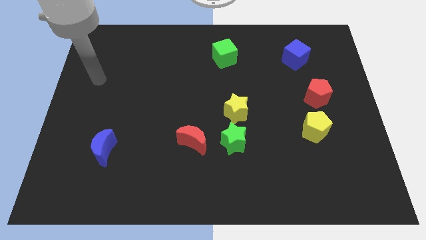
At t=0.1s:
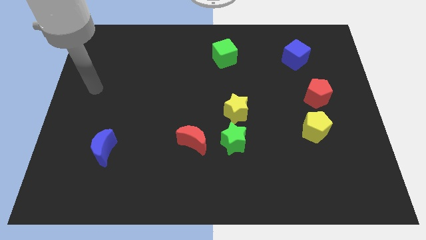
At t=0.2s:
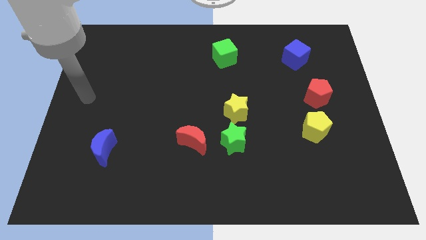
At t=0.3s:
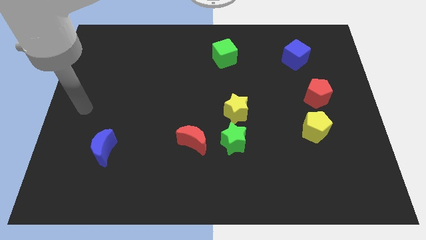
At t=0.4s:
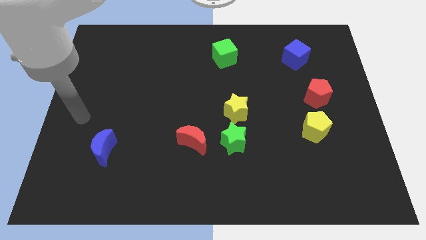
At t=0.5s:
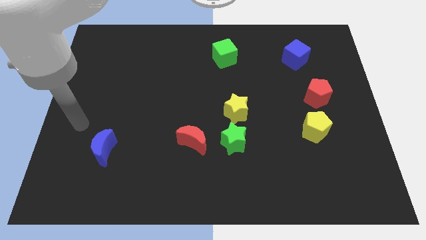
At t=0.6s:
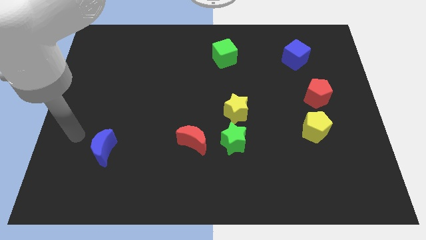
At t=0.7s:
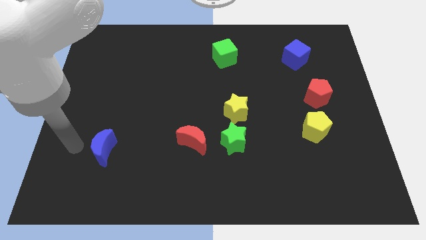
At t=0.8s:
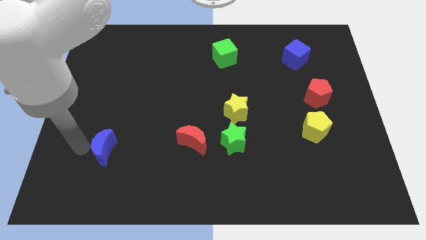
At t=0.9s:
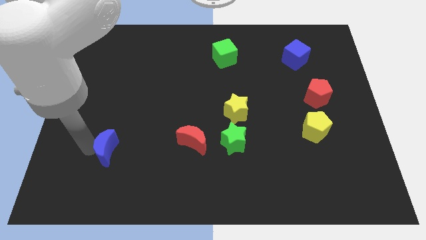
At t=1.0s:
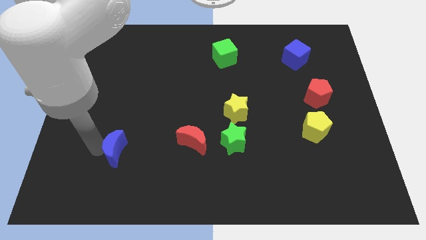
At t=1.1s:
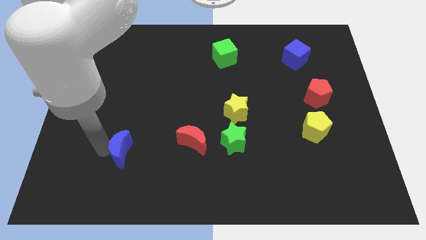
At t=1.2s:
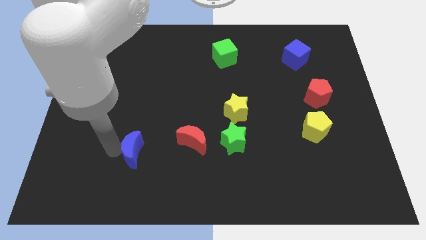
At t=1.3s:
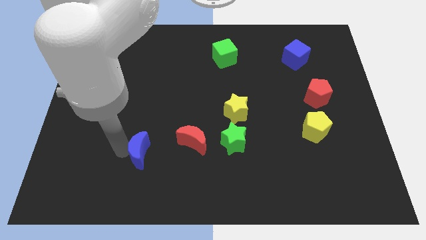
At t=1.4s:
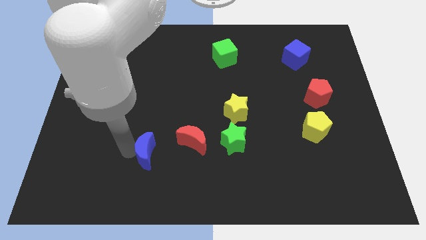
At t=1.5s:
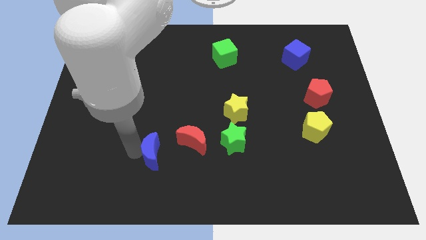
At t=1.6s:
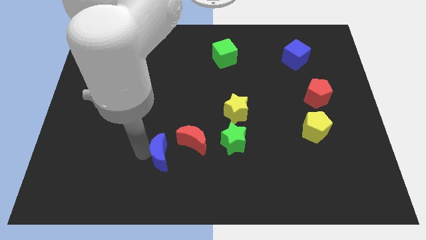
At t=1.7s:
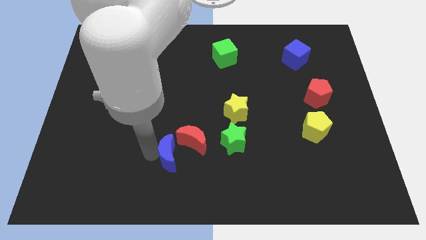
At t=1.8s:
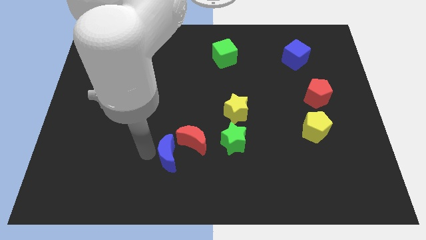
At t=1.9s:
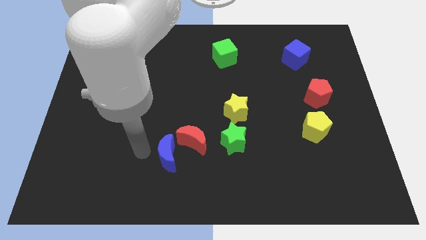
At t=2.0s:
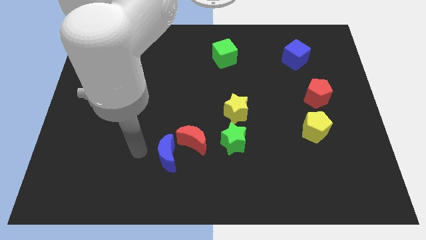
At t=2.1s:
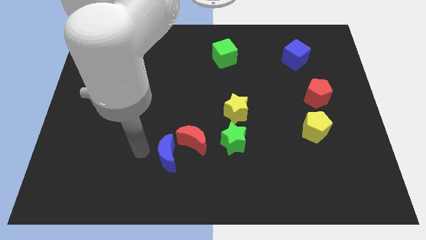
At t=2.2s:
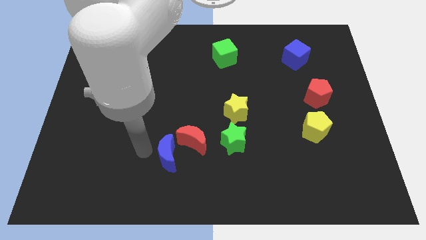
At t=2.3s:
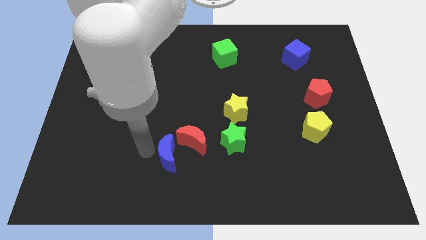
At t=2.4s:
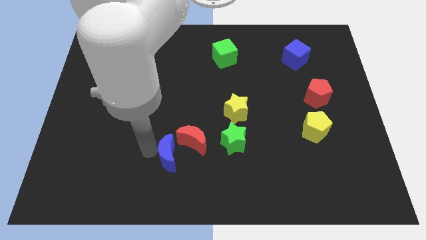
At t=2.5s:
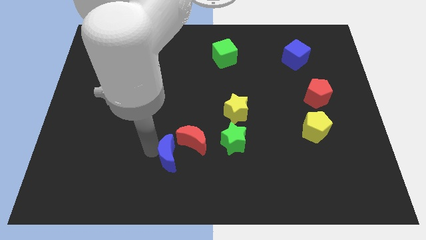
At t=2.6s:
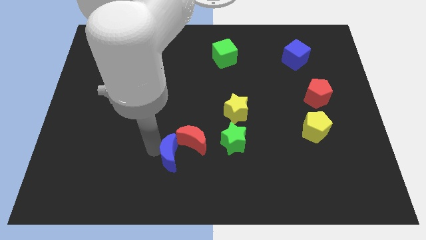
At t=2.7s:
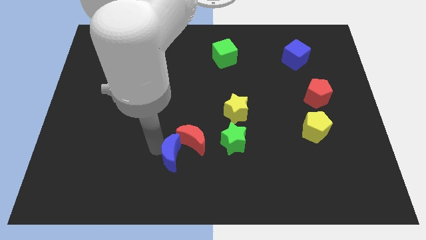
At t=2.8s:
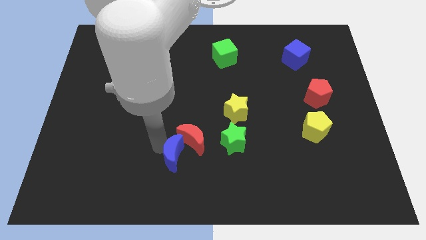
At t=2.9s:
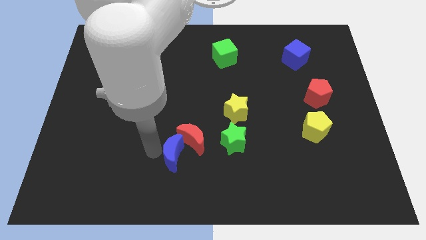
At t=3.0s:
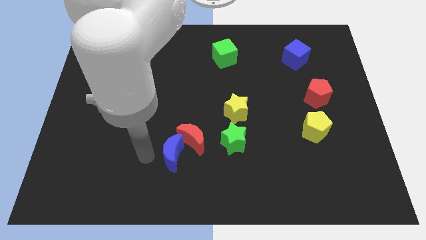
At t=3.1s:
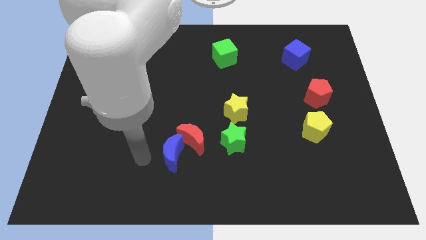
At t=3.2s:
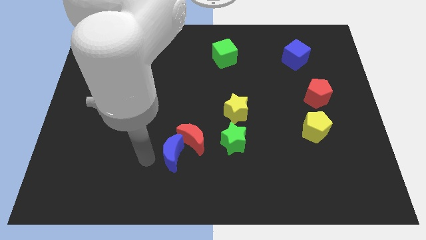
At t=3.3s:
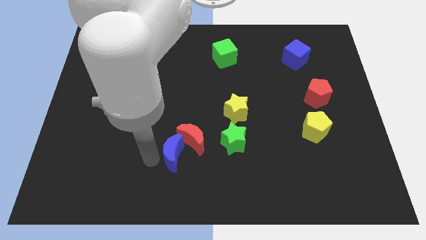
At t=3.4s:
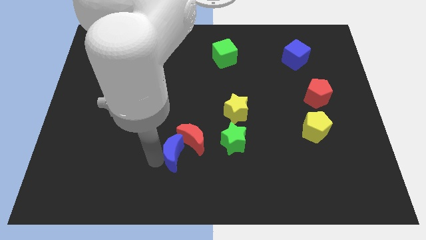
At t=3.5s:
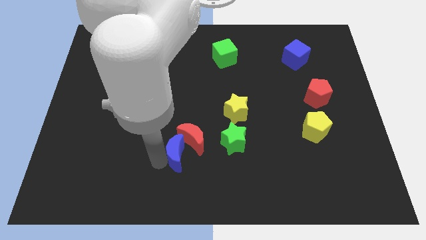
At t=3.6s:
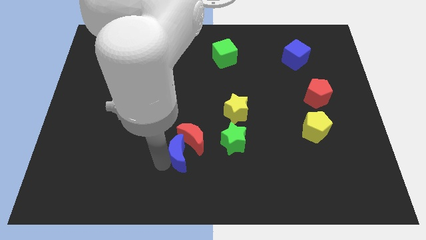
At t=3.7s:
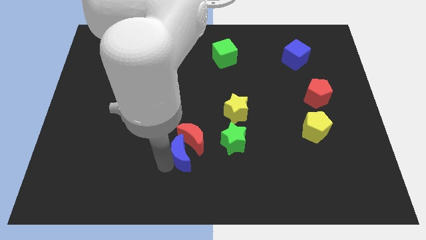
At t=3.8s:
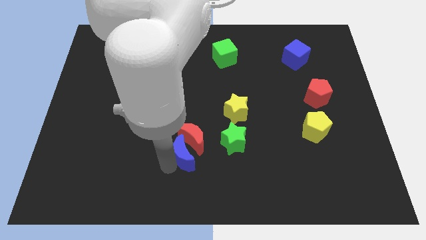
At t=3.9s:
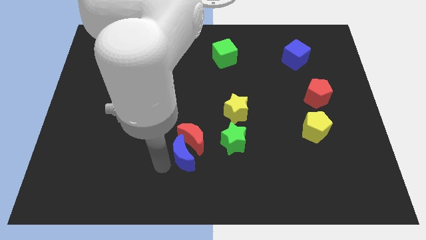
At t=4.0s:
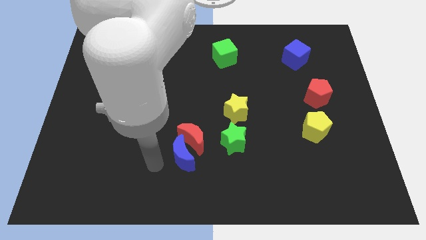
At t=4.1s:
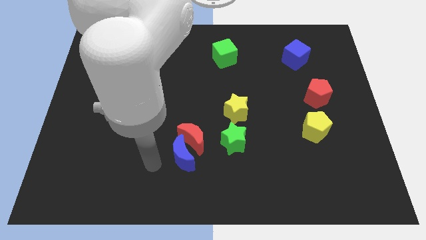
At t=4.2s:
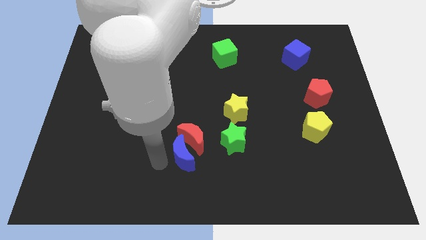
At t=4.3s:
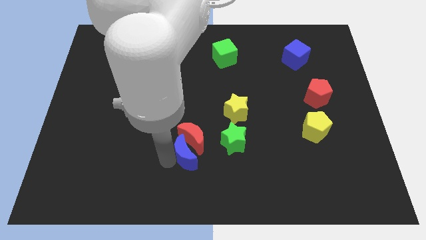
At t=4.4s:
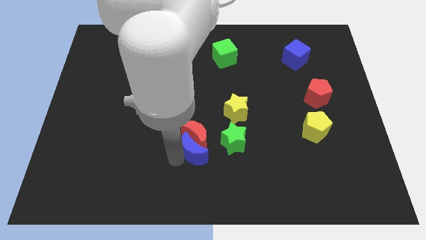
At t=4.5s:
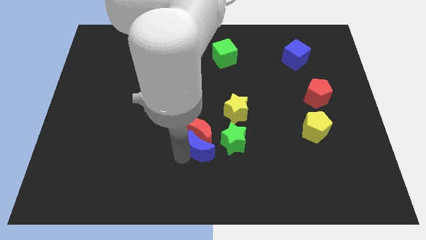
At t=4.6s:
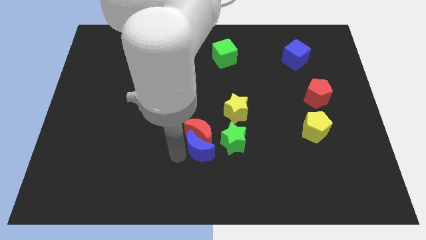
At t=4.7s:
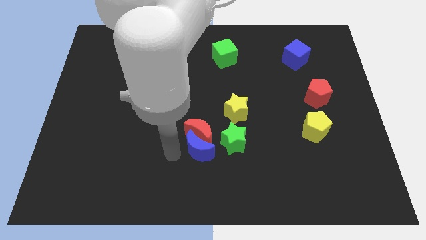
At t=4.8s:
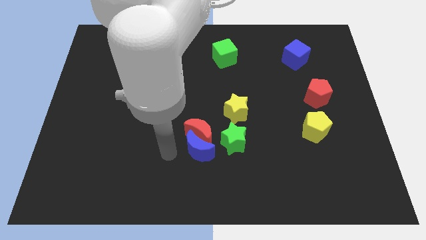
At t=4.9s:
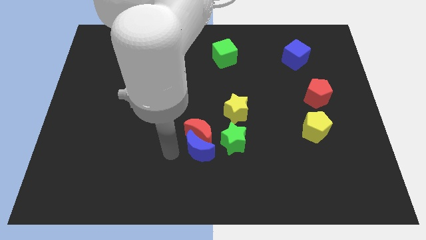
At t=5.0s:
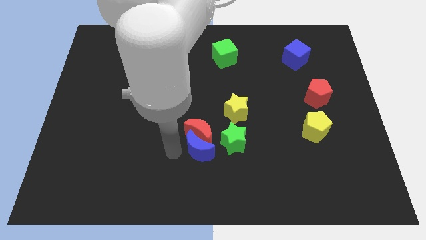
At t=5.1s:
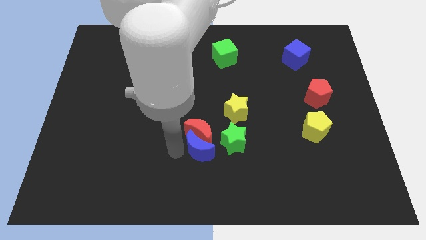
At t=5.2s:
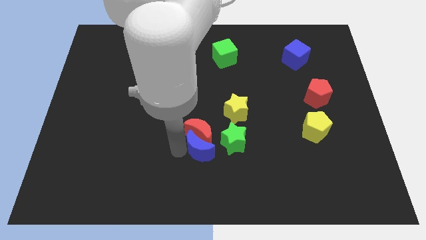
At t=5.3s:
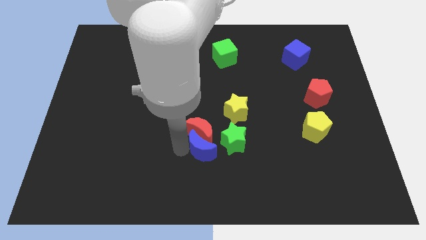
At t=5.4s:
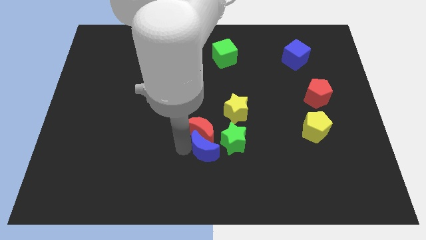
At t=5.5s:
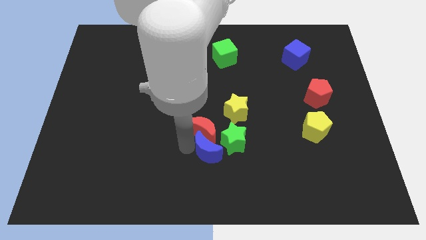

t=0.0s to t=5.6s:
push the blue moon close to the green star

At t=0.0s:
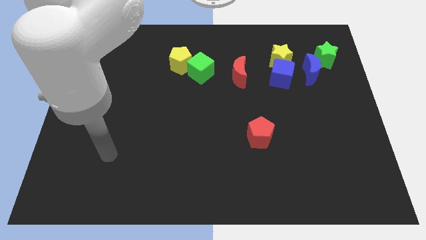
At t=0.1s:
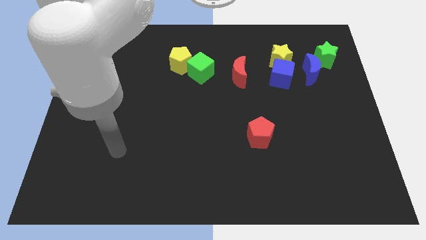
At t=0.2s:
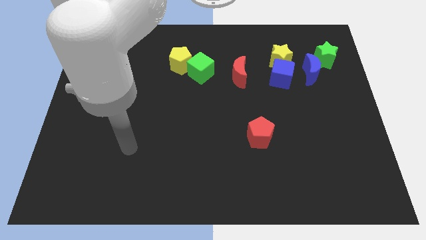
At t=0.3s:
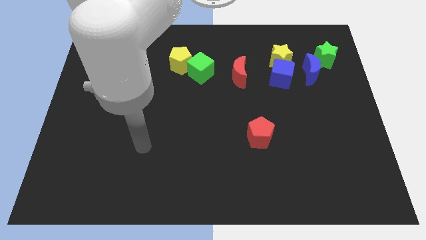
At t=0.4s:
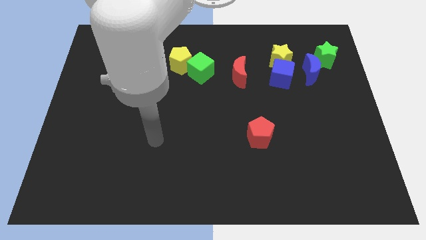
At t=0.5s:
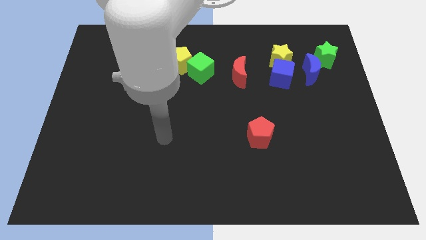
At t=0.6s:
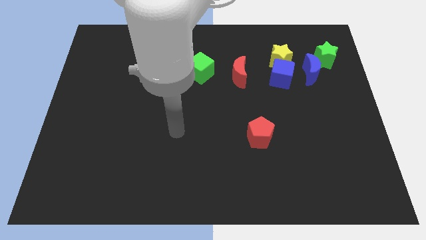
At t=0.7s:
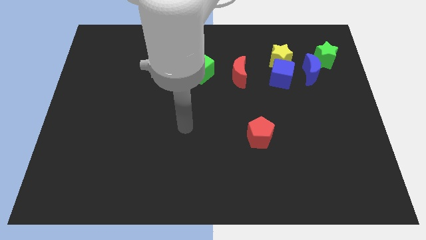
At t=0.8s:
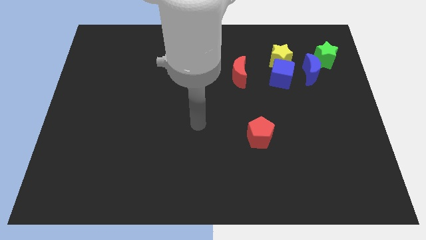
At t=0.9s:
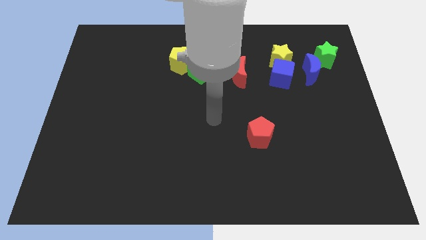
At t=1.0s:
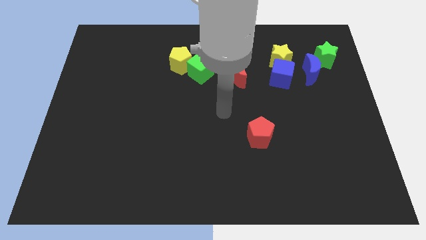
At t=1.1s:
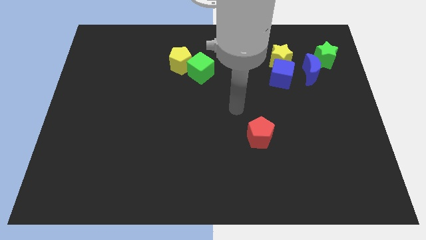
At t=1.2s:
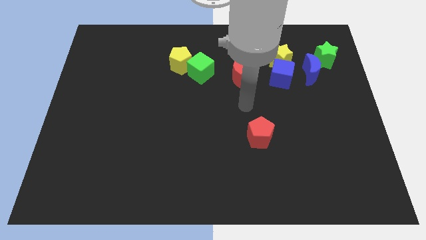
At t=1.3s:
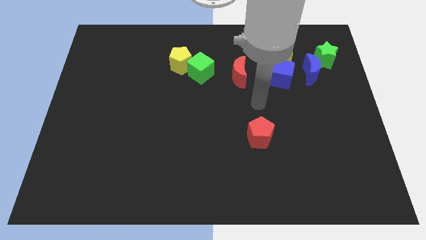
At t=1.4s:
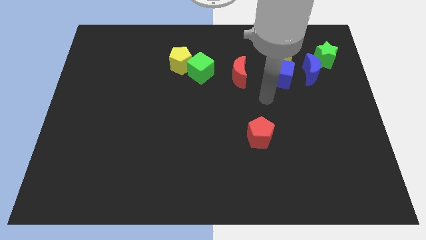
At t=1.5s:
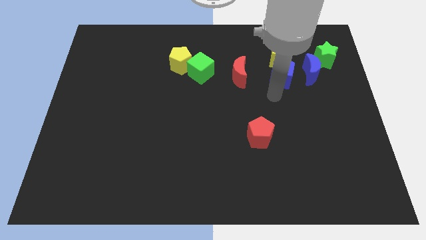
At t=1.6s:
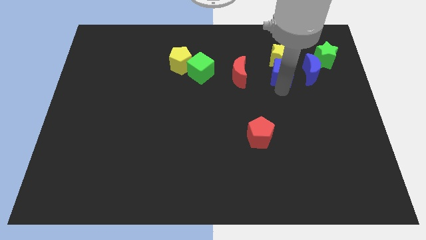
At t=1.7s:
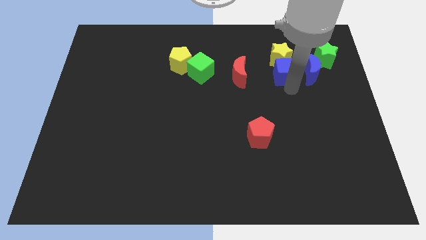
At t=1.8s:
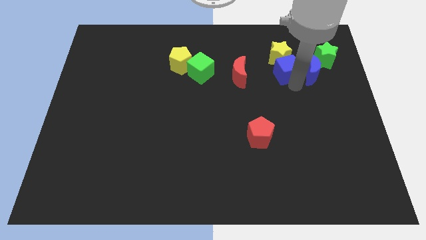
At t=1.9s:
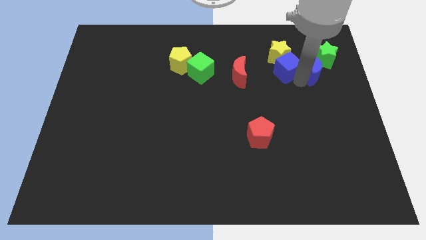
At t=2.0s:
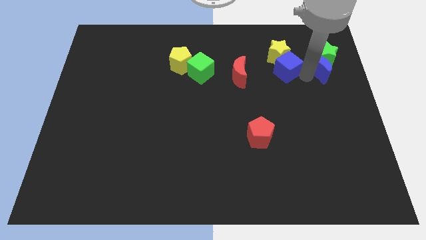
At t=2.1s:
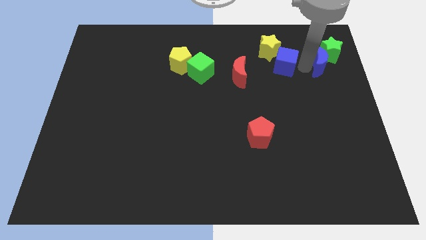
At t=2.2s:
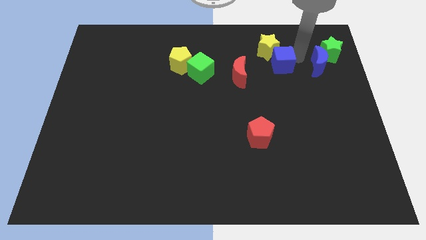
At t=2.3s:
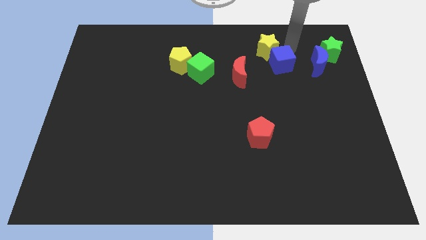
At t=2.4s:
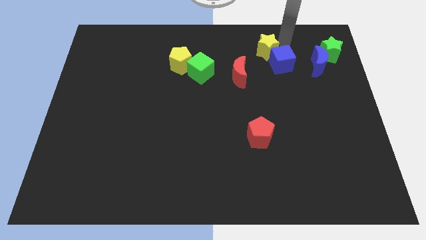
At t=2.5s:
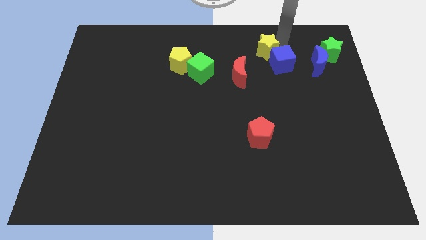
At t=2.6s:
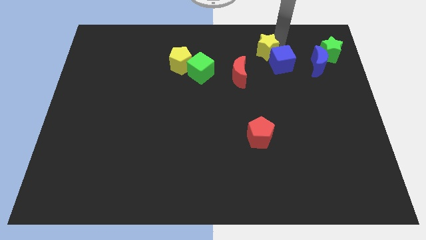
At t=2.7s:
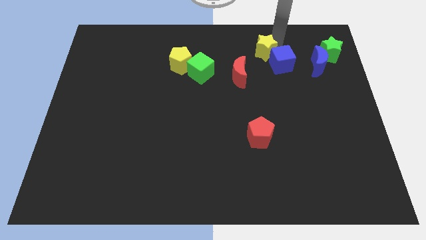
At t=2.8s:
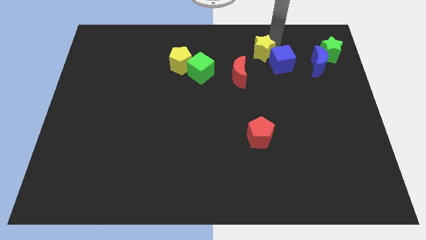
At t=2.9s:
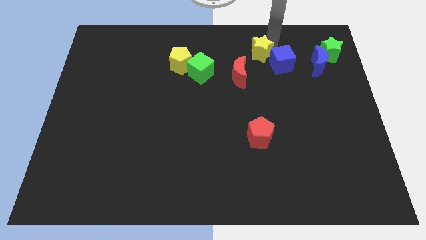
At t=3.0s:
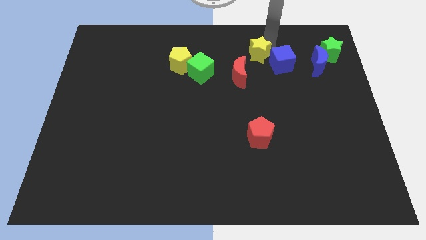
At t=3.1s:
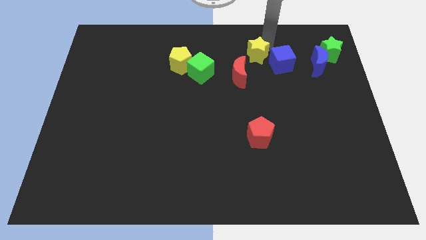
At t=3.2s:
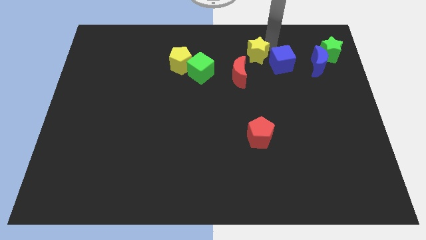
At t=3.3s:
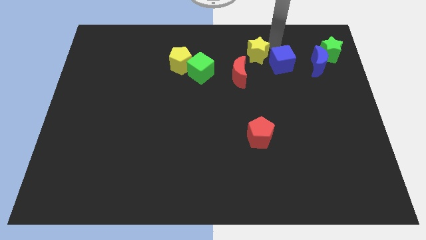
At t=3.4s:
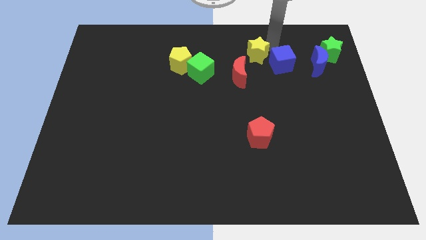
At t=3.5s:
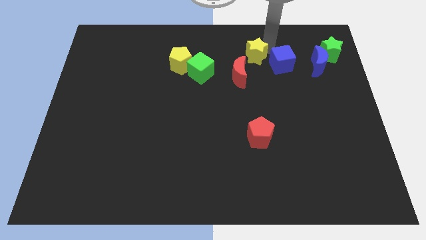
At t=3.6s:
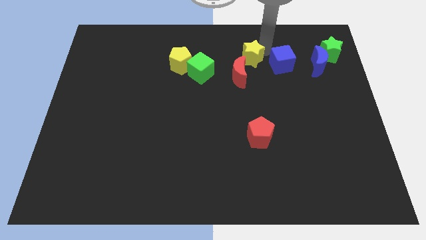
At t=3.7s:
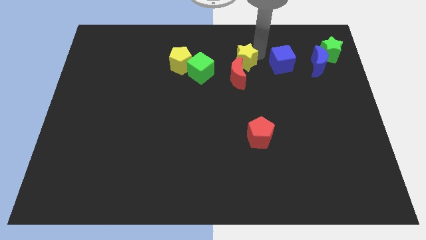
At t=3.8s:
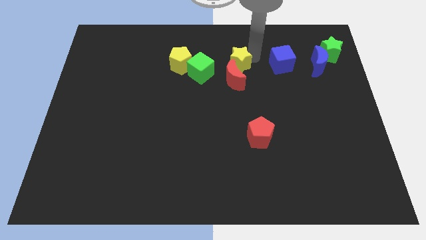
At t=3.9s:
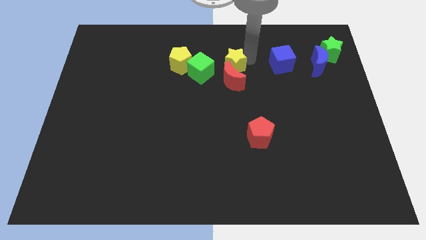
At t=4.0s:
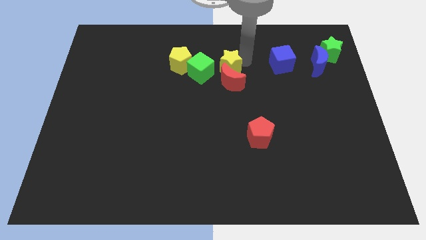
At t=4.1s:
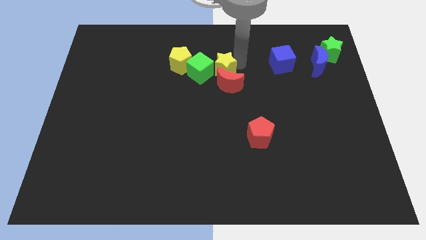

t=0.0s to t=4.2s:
put the yellow star towards the green cube
